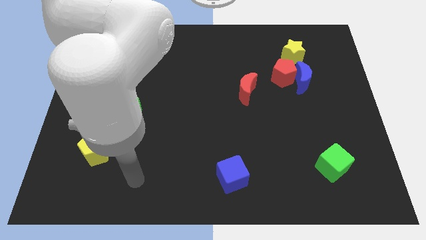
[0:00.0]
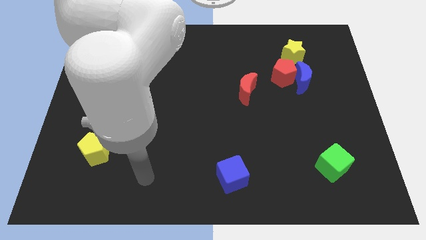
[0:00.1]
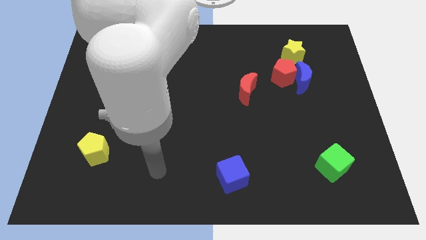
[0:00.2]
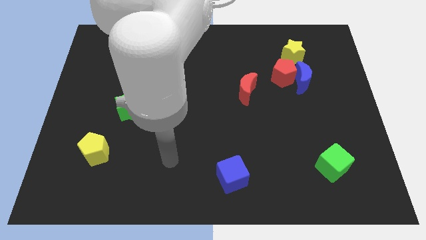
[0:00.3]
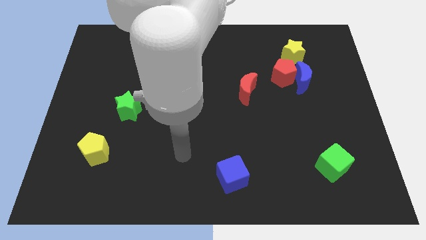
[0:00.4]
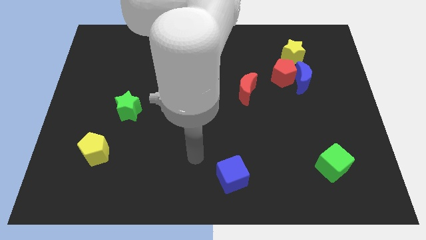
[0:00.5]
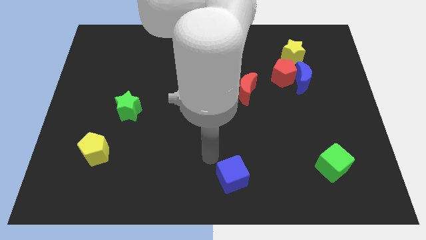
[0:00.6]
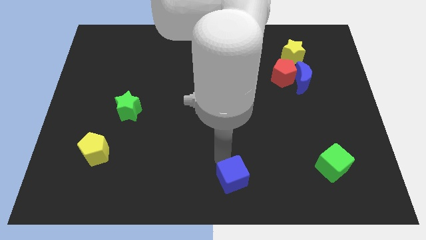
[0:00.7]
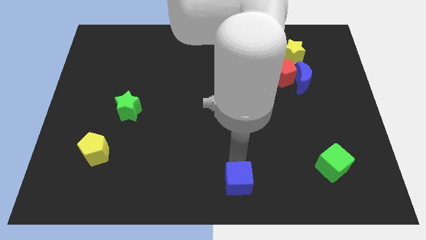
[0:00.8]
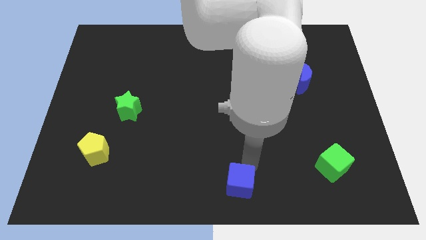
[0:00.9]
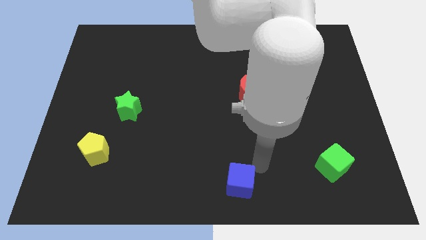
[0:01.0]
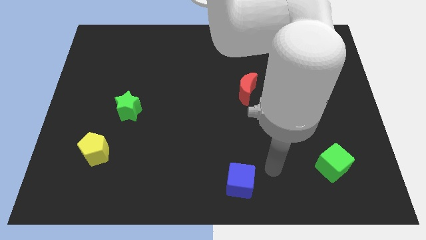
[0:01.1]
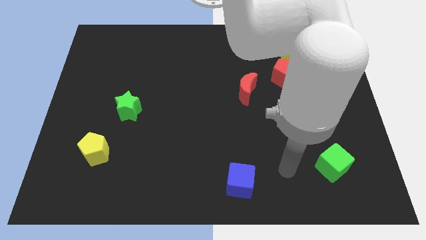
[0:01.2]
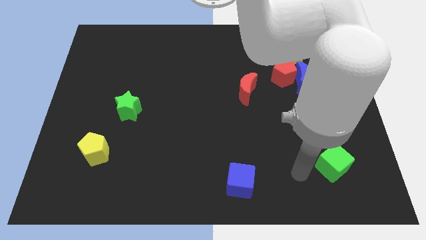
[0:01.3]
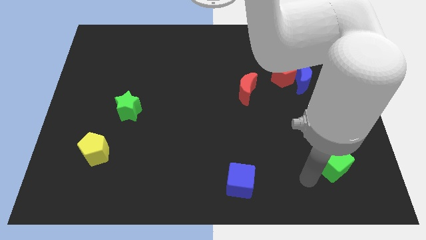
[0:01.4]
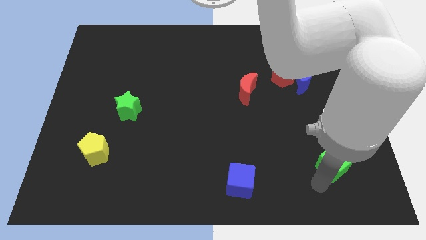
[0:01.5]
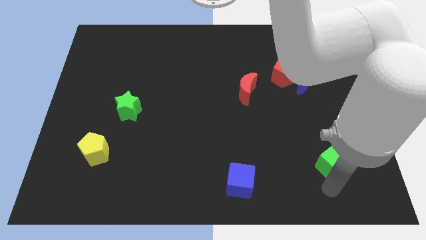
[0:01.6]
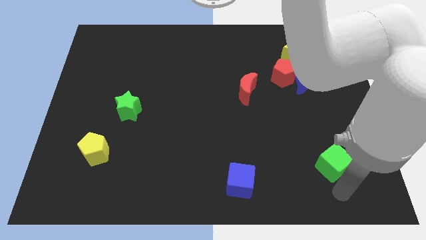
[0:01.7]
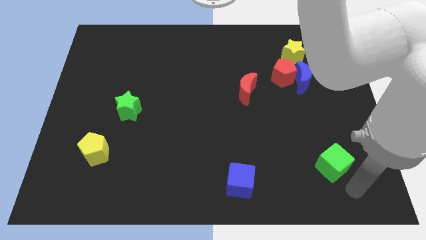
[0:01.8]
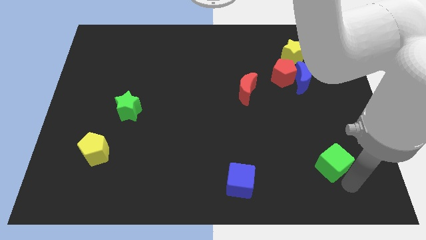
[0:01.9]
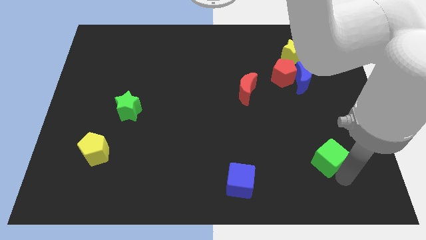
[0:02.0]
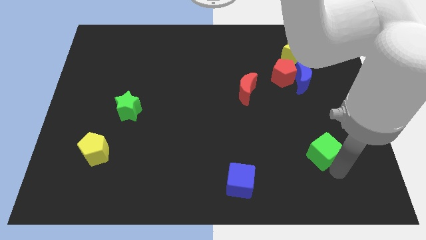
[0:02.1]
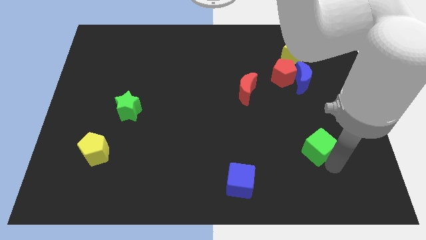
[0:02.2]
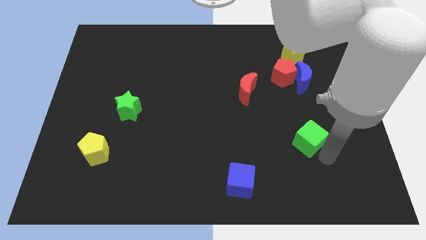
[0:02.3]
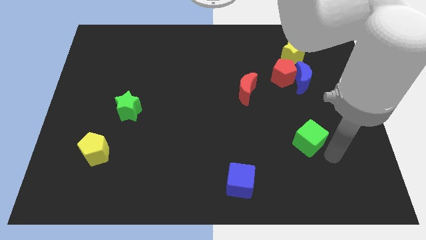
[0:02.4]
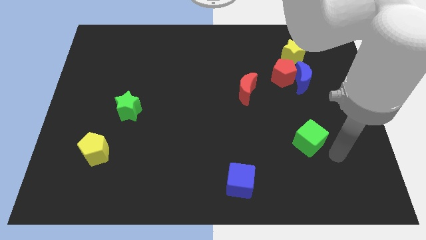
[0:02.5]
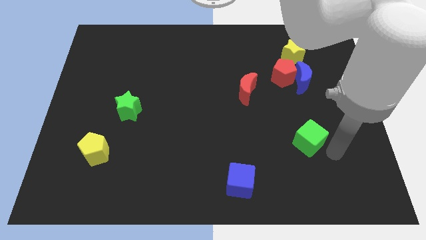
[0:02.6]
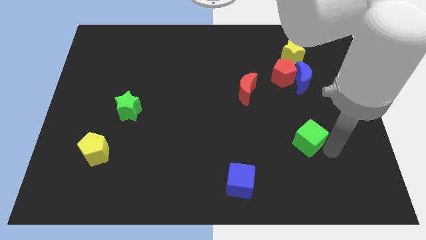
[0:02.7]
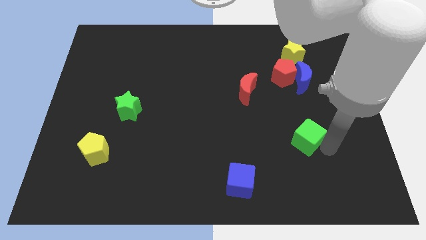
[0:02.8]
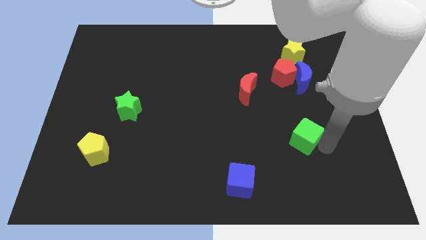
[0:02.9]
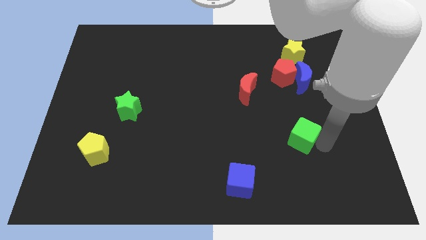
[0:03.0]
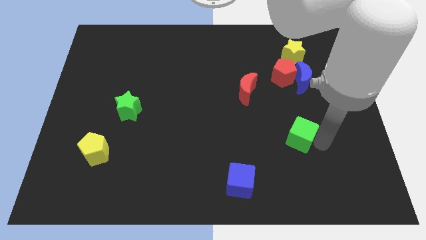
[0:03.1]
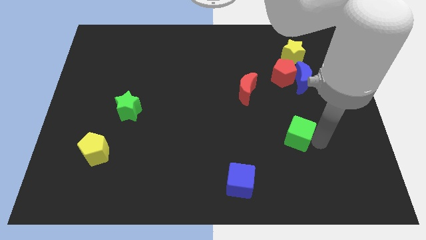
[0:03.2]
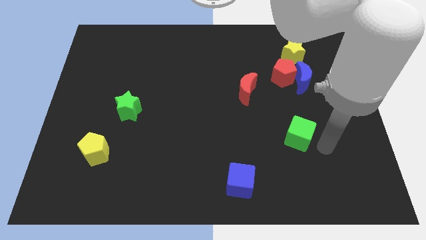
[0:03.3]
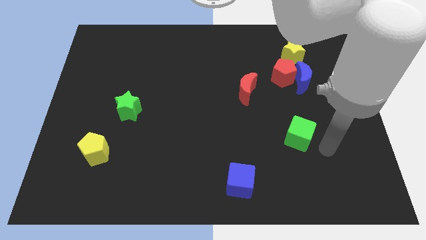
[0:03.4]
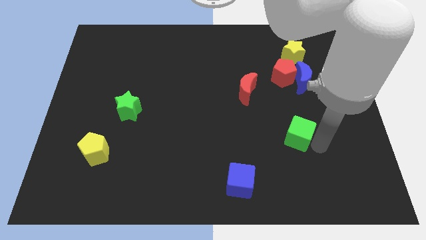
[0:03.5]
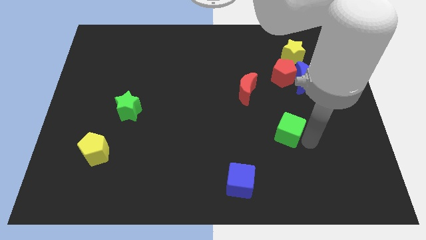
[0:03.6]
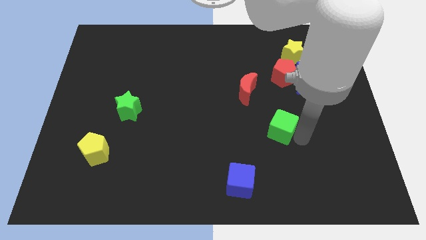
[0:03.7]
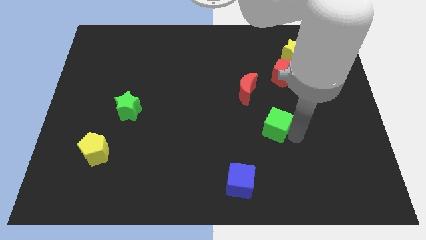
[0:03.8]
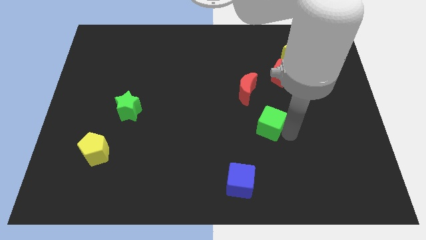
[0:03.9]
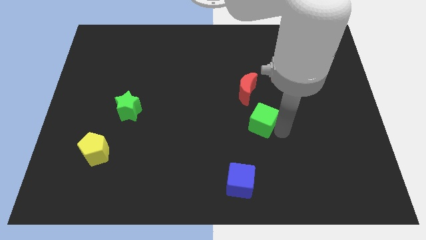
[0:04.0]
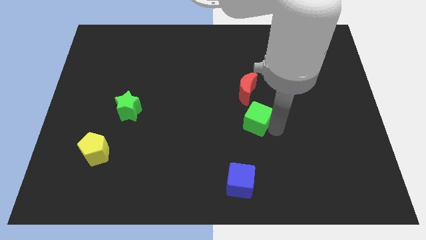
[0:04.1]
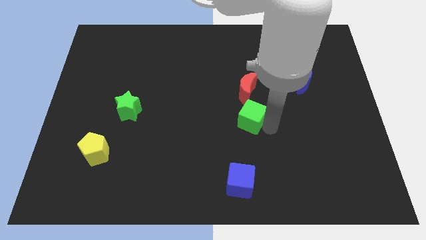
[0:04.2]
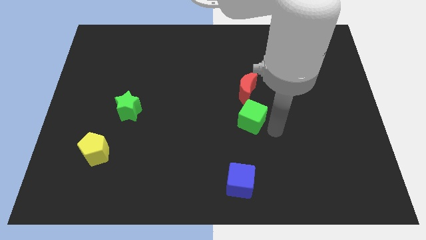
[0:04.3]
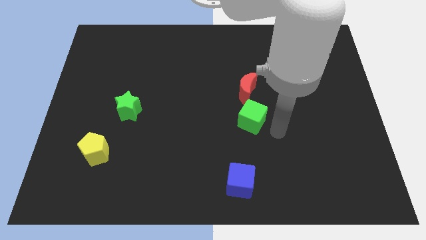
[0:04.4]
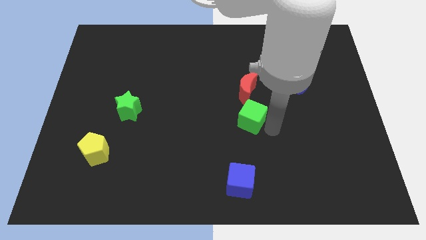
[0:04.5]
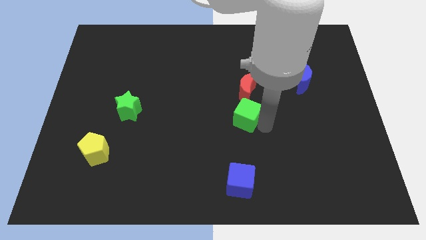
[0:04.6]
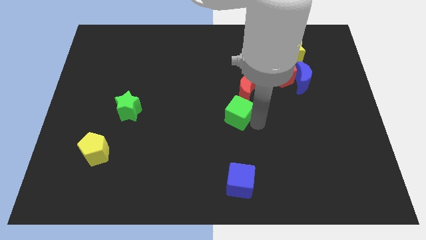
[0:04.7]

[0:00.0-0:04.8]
push the green cube to the bottom left side of the red moon

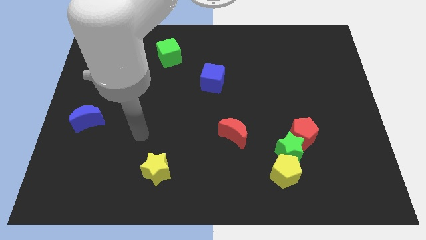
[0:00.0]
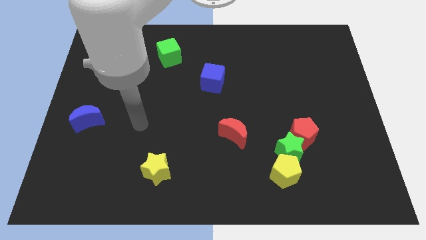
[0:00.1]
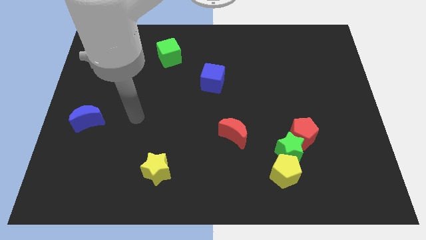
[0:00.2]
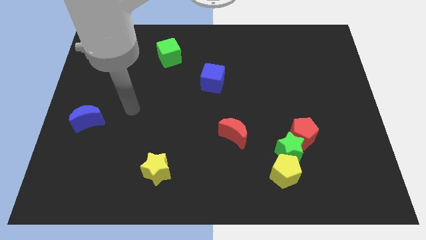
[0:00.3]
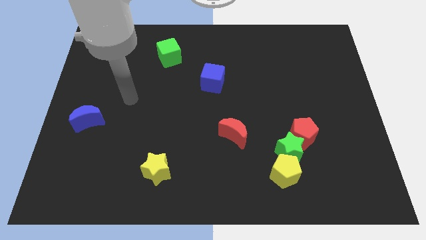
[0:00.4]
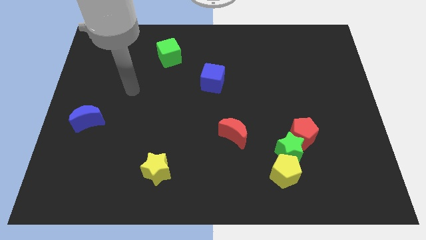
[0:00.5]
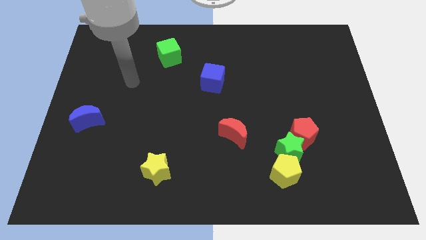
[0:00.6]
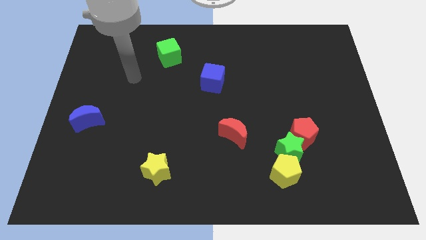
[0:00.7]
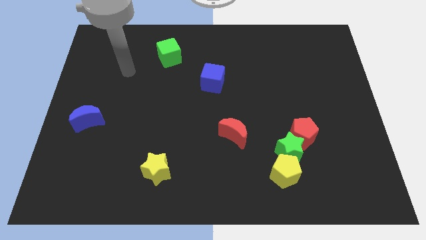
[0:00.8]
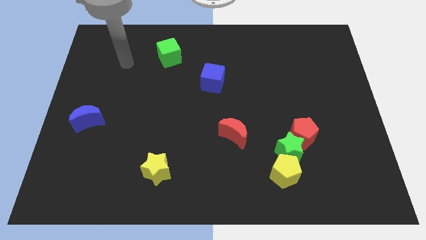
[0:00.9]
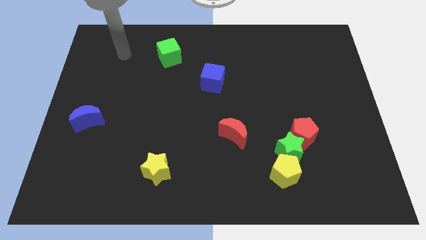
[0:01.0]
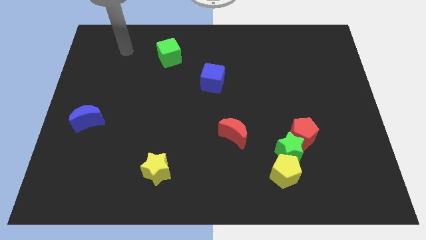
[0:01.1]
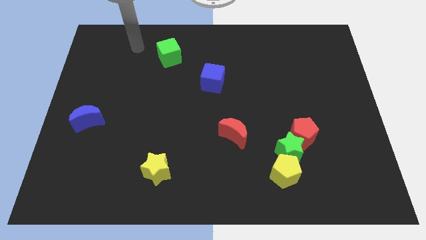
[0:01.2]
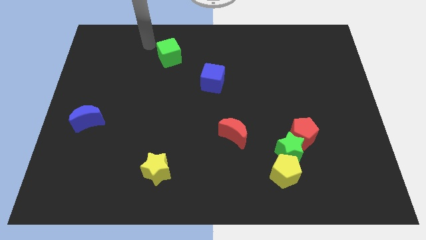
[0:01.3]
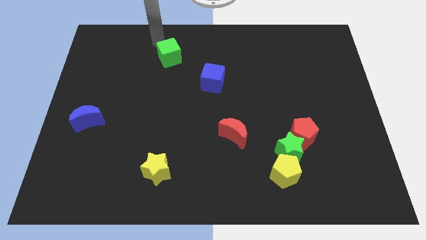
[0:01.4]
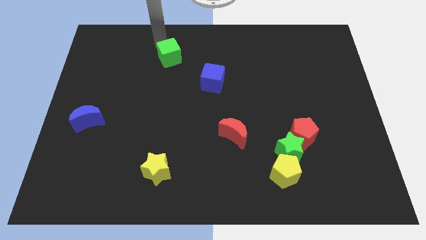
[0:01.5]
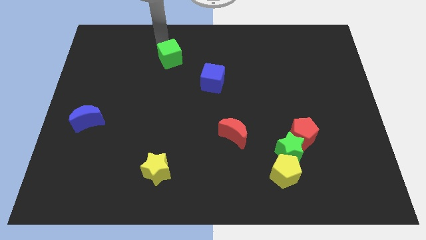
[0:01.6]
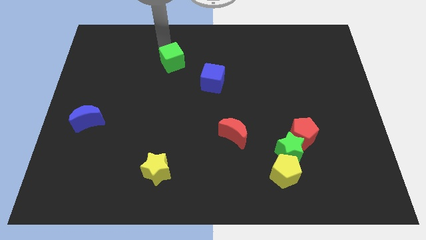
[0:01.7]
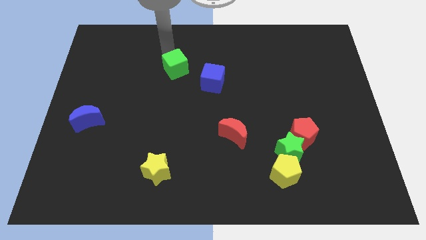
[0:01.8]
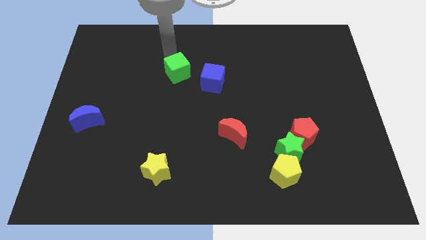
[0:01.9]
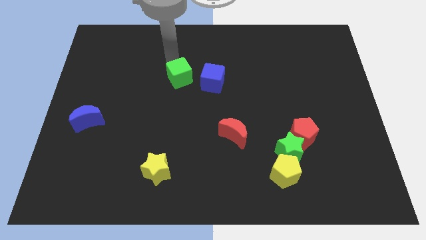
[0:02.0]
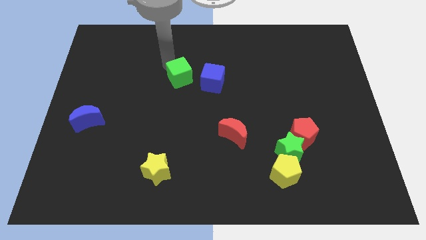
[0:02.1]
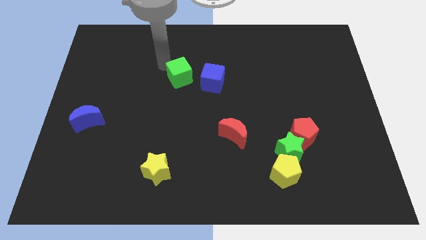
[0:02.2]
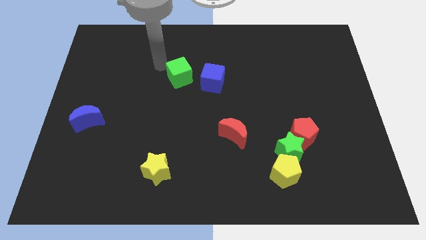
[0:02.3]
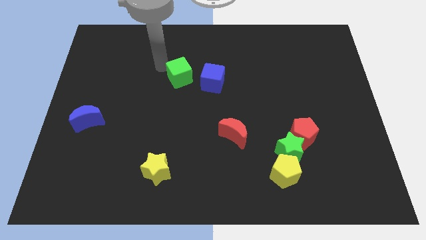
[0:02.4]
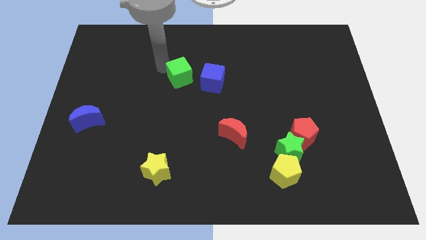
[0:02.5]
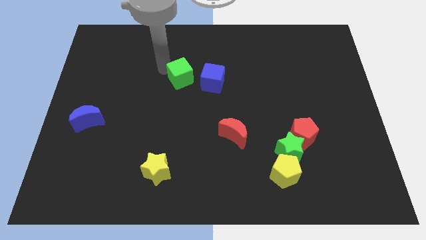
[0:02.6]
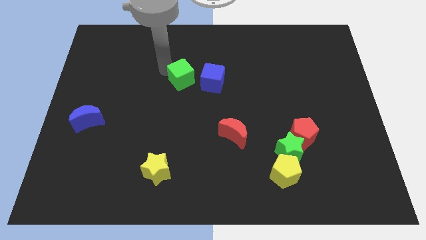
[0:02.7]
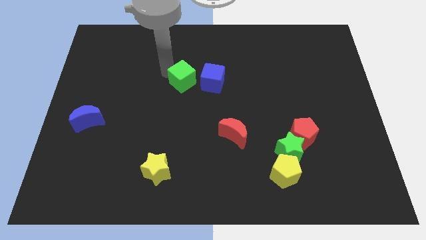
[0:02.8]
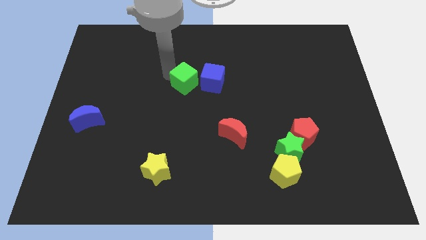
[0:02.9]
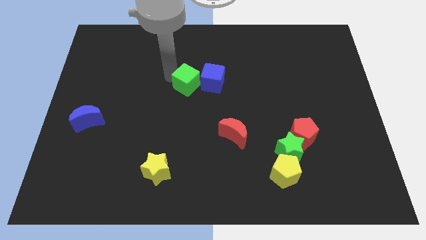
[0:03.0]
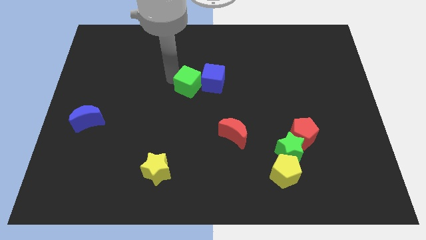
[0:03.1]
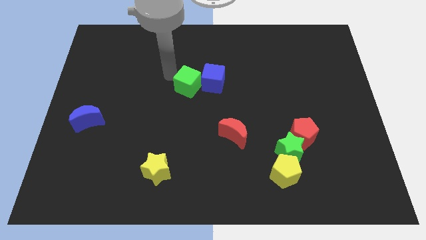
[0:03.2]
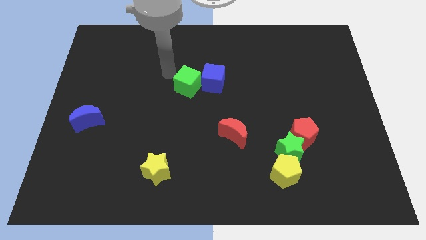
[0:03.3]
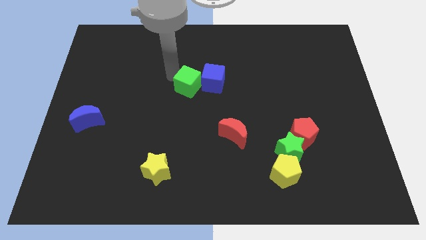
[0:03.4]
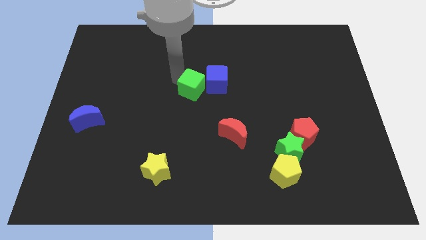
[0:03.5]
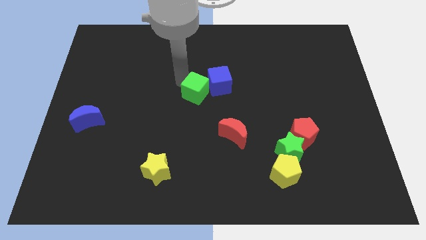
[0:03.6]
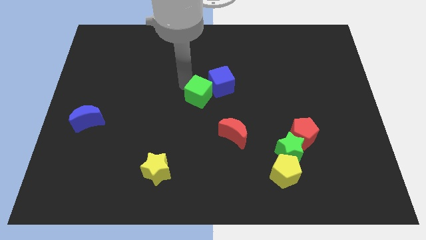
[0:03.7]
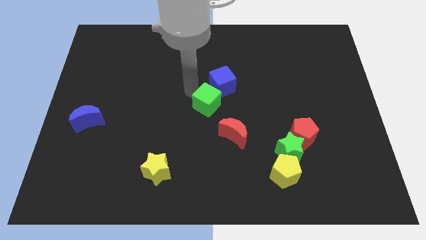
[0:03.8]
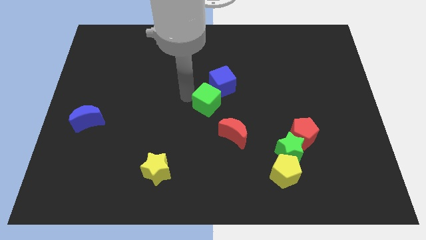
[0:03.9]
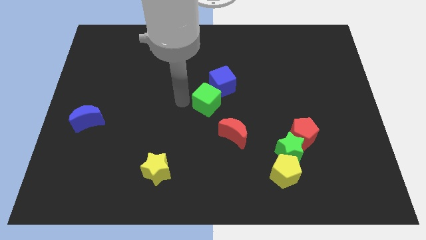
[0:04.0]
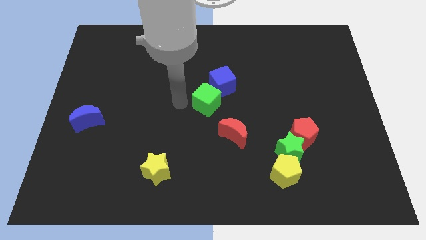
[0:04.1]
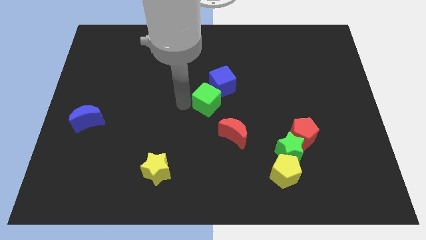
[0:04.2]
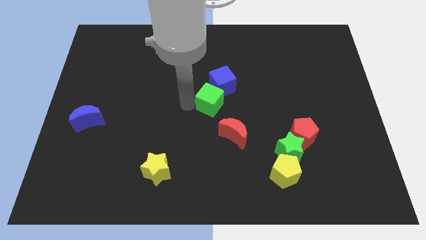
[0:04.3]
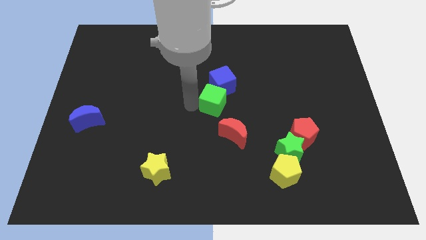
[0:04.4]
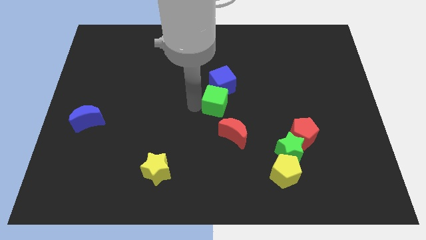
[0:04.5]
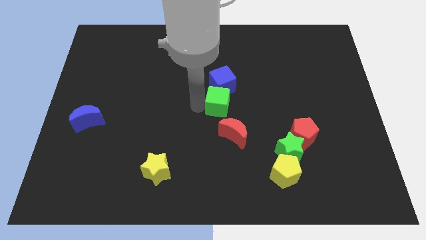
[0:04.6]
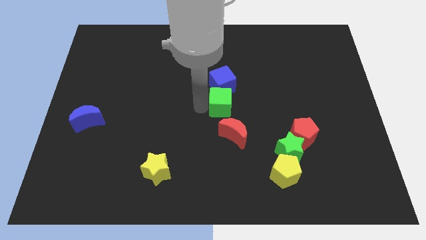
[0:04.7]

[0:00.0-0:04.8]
put the green cube diagonally down and to the right of the blue cube
